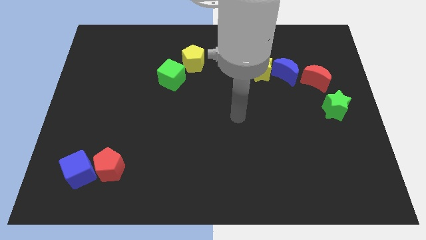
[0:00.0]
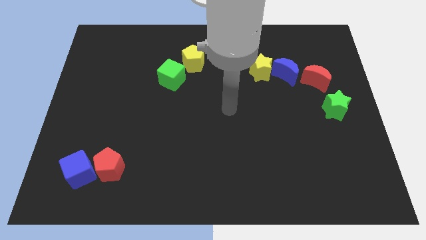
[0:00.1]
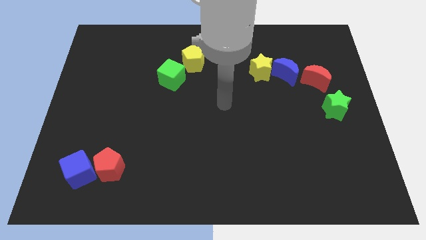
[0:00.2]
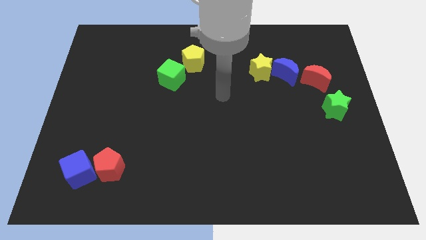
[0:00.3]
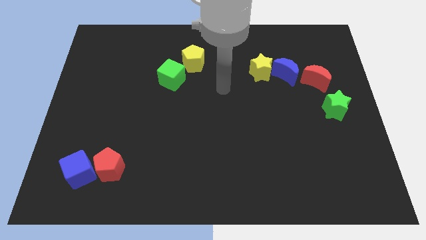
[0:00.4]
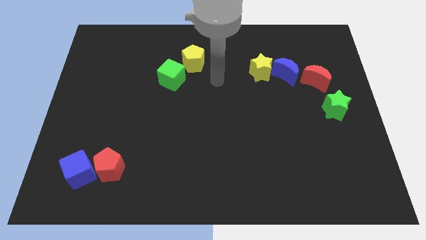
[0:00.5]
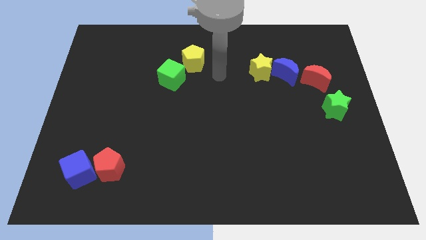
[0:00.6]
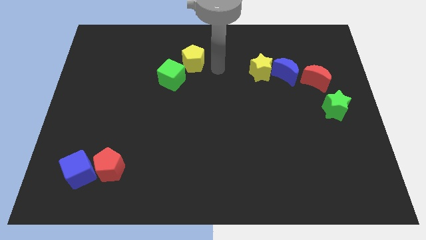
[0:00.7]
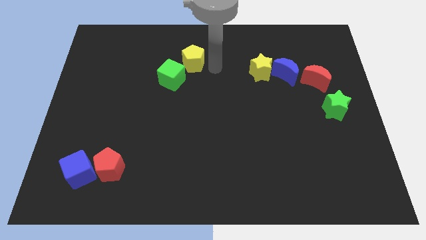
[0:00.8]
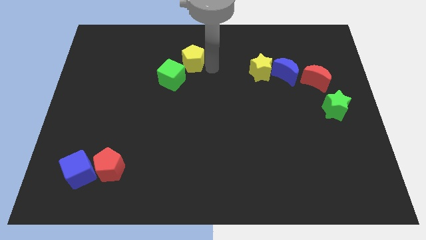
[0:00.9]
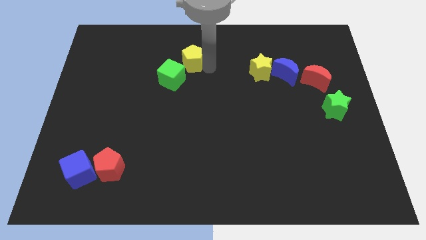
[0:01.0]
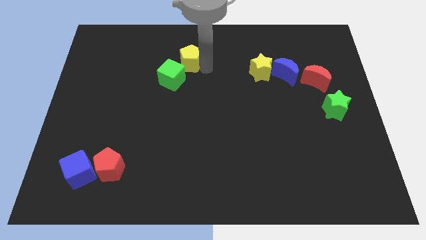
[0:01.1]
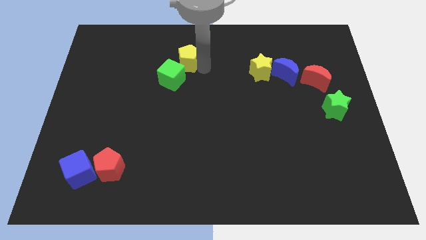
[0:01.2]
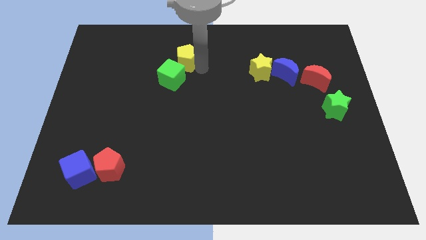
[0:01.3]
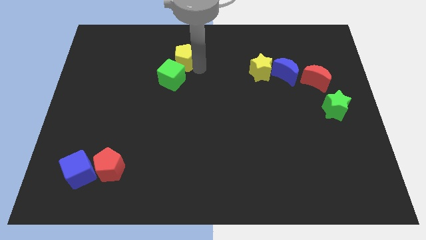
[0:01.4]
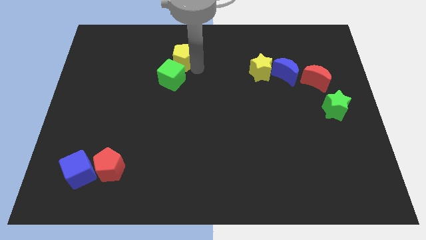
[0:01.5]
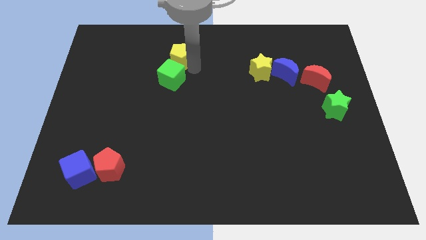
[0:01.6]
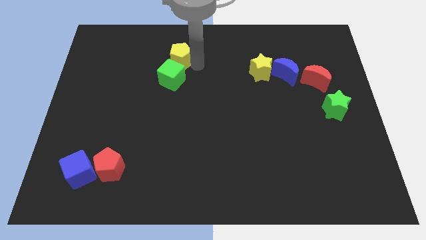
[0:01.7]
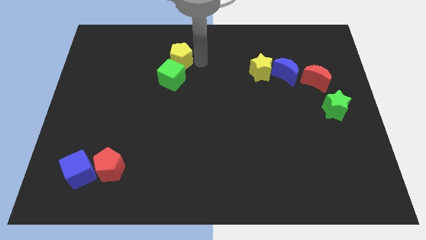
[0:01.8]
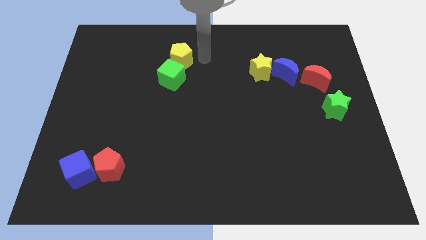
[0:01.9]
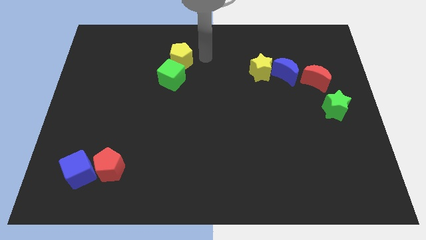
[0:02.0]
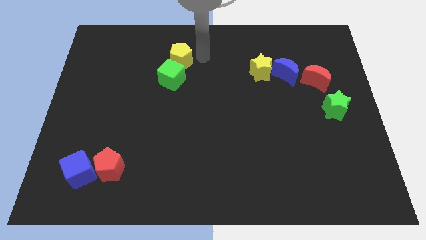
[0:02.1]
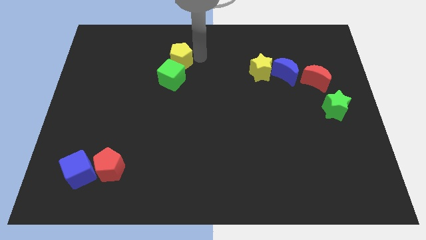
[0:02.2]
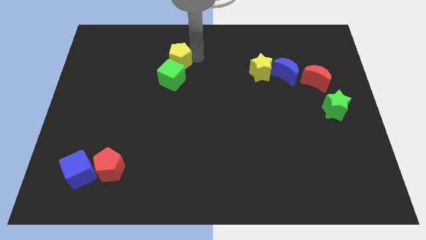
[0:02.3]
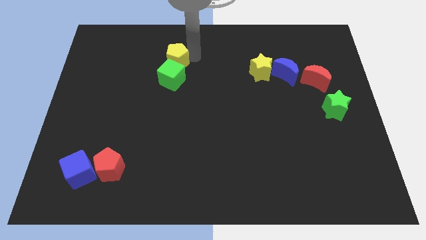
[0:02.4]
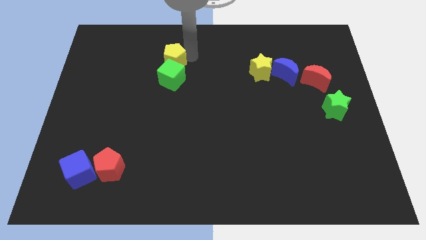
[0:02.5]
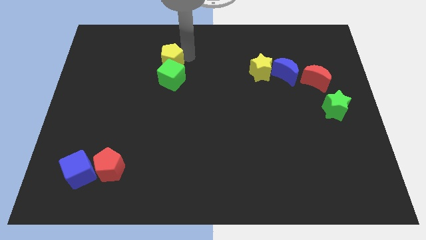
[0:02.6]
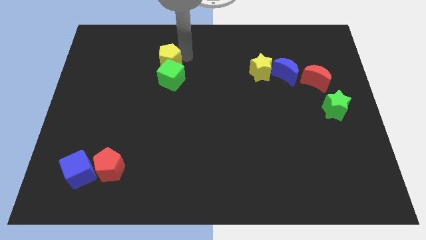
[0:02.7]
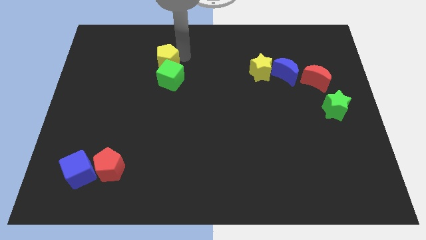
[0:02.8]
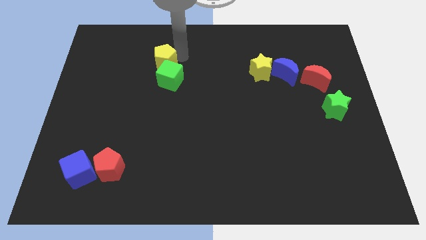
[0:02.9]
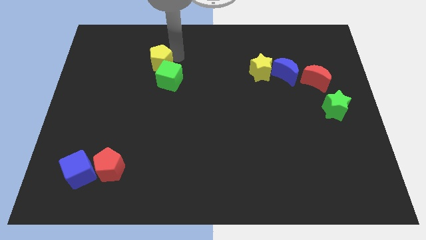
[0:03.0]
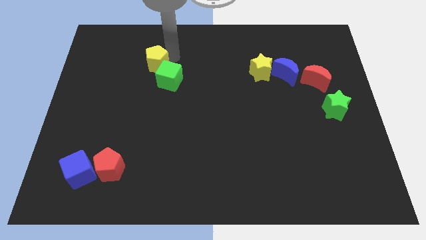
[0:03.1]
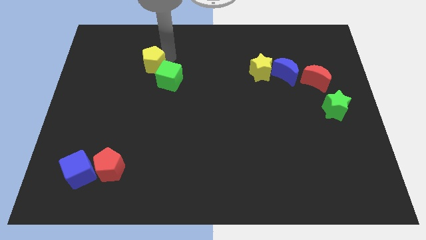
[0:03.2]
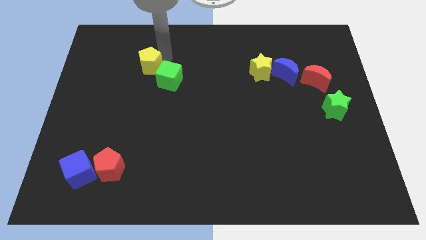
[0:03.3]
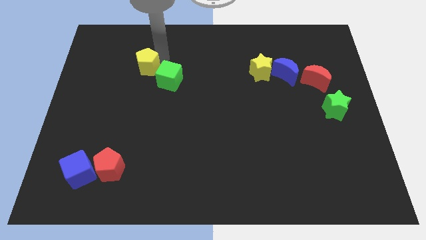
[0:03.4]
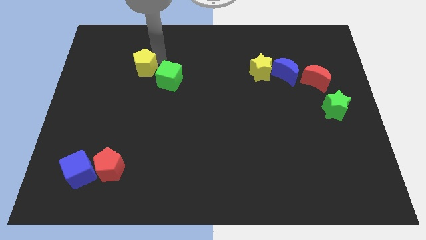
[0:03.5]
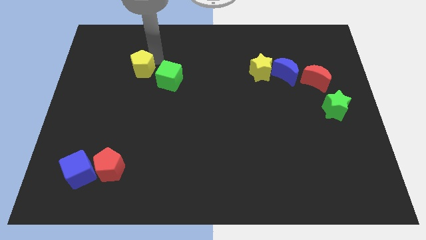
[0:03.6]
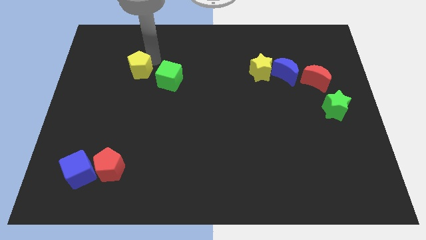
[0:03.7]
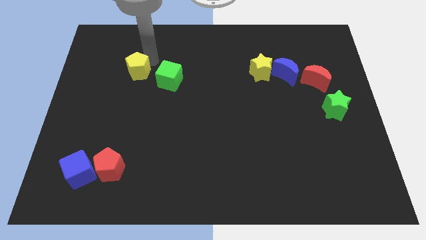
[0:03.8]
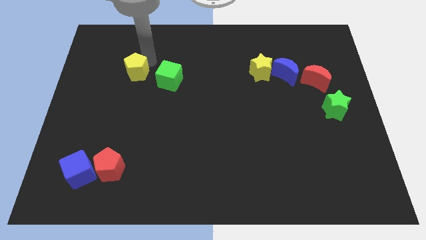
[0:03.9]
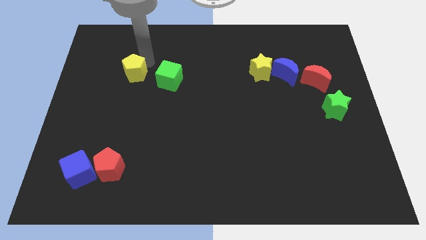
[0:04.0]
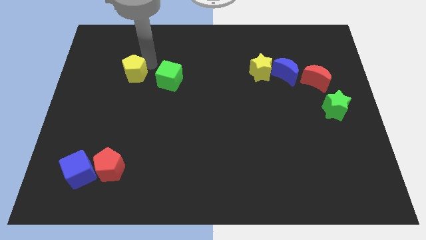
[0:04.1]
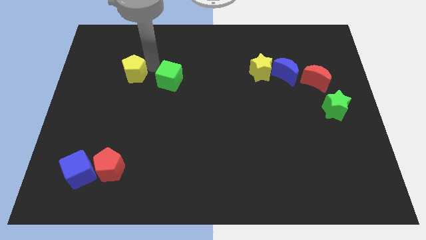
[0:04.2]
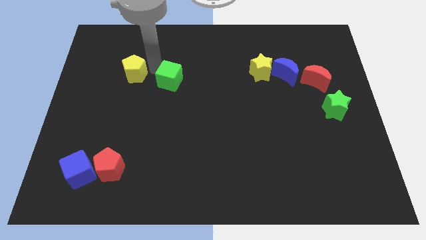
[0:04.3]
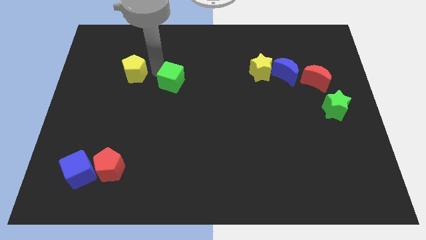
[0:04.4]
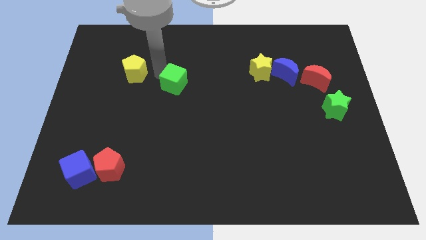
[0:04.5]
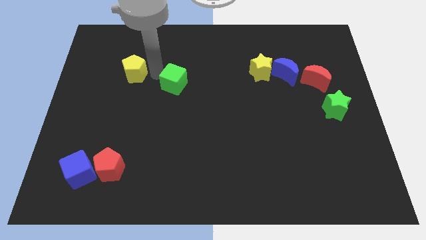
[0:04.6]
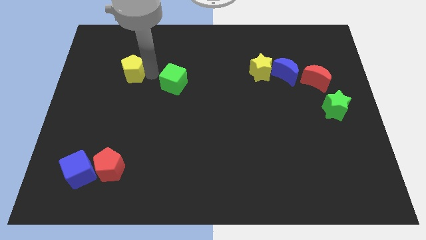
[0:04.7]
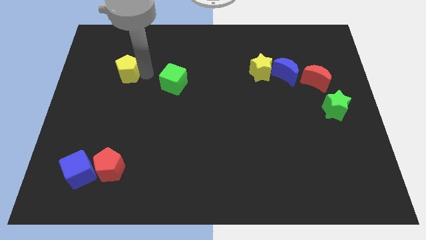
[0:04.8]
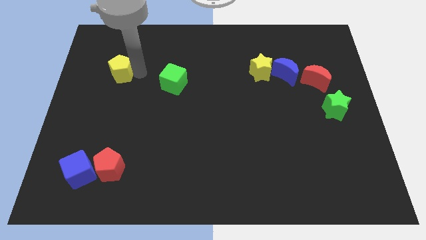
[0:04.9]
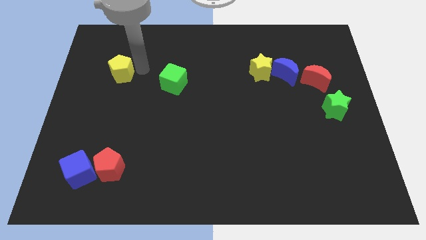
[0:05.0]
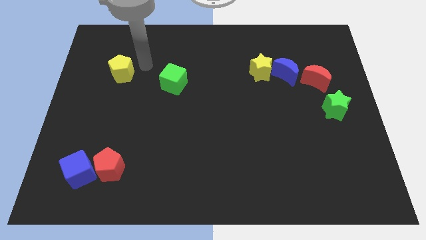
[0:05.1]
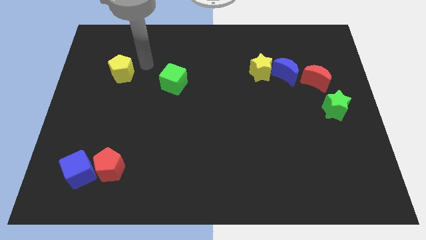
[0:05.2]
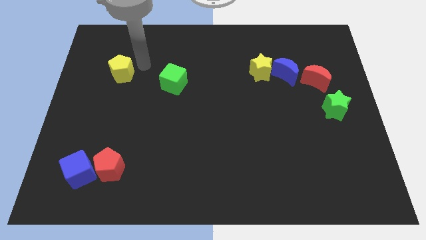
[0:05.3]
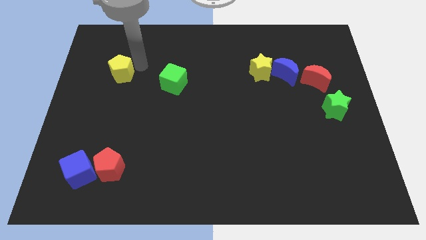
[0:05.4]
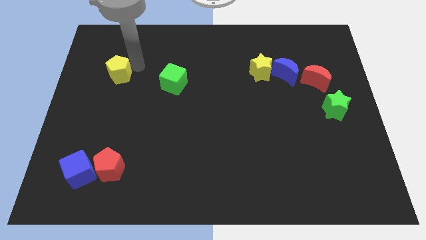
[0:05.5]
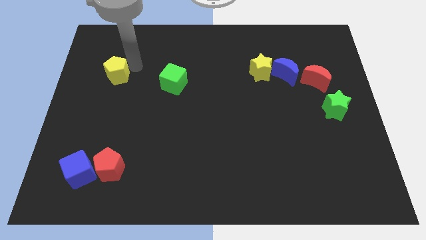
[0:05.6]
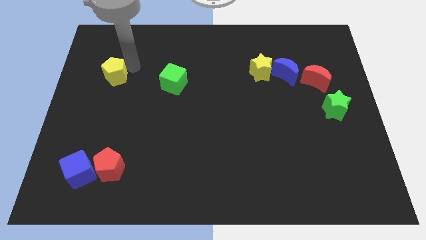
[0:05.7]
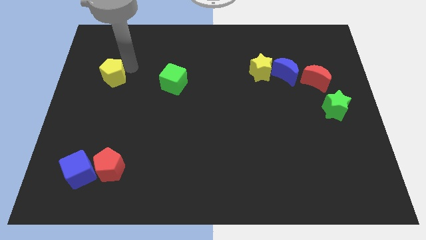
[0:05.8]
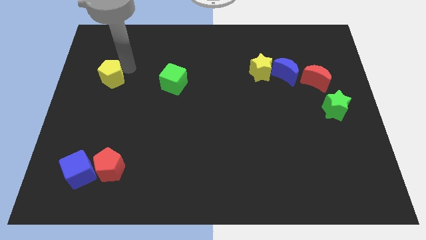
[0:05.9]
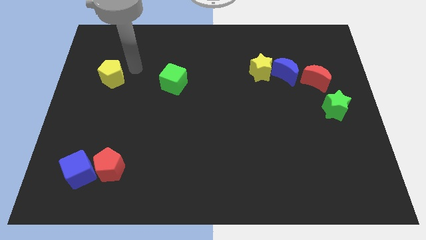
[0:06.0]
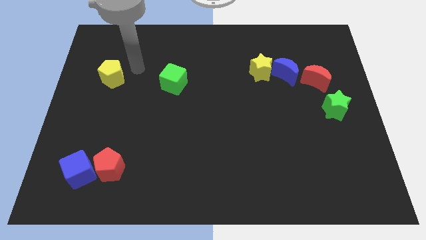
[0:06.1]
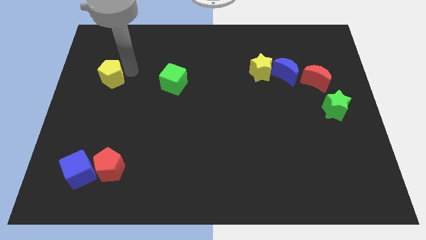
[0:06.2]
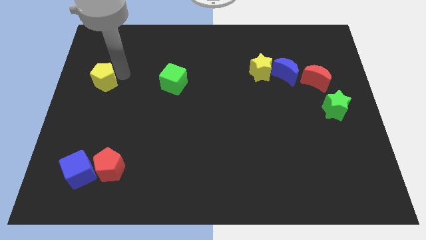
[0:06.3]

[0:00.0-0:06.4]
put the yellow pentagon to the left side of the board

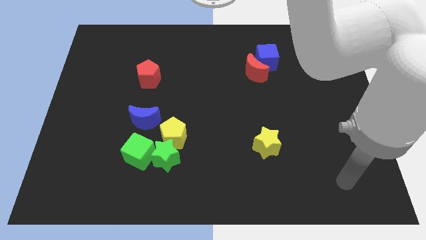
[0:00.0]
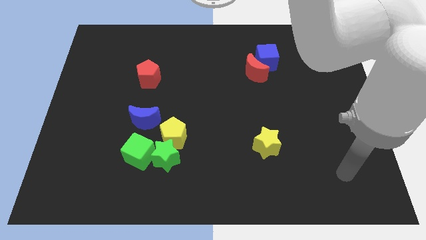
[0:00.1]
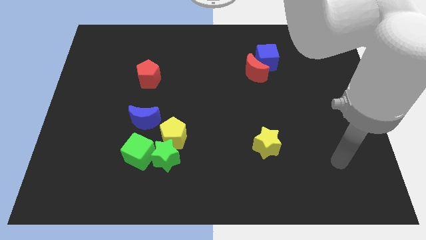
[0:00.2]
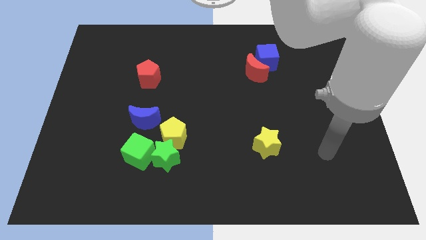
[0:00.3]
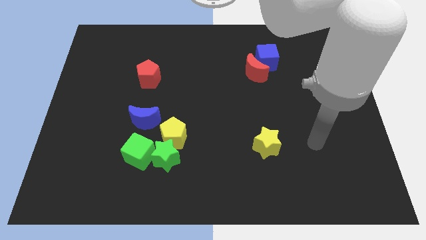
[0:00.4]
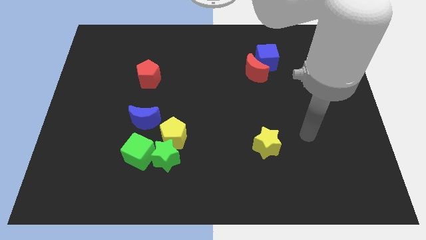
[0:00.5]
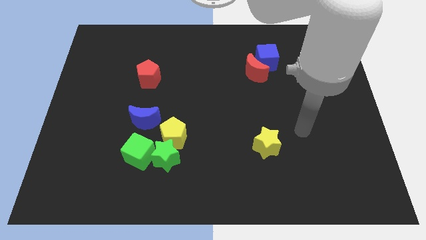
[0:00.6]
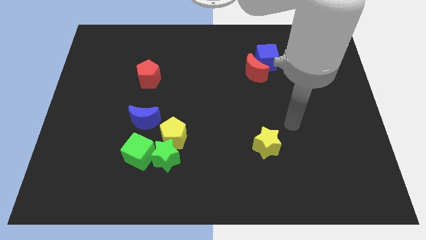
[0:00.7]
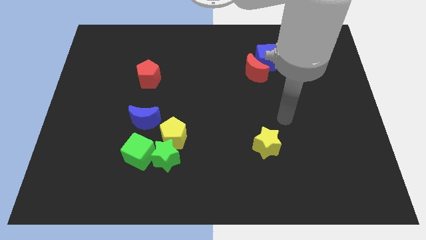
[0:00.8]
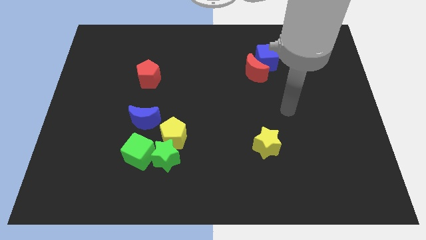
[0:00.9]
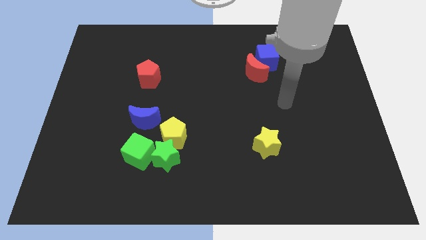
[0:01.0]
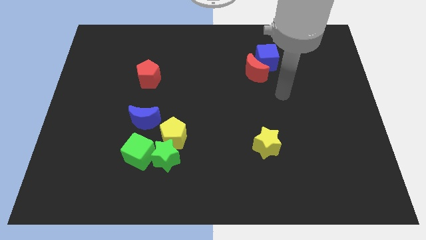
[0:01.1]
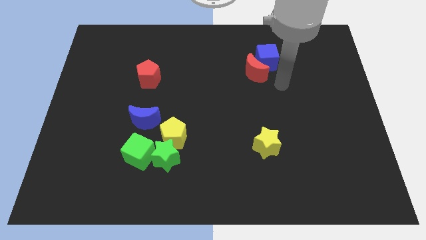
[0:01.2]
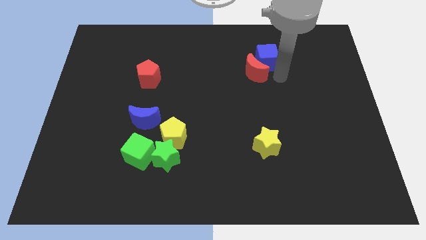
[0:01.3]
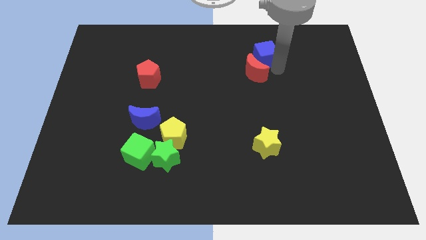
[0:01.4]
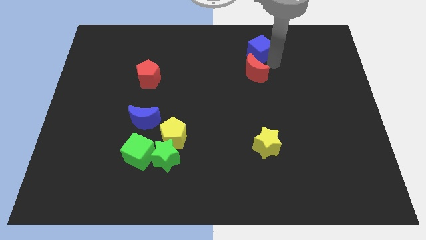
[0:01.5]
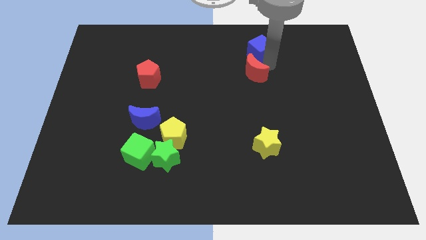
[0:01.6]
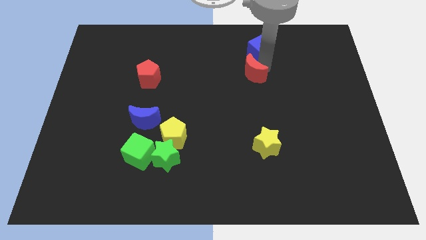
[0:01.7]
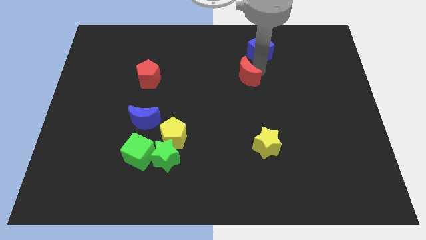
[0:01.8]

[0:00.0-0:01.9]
slide the red moon to the center of the board
